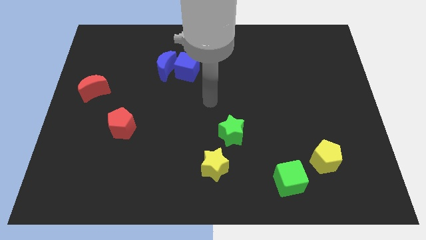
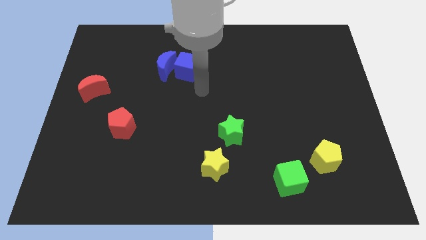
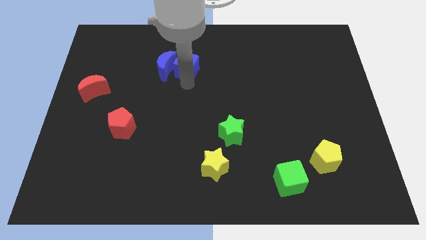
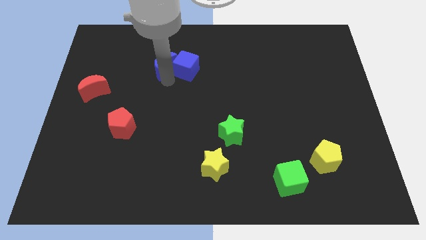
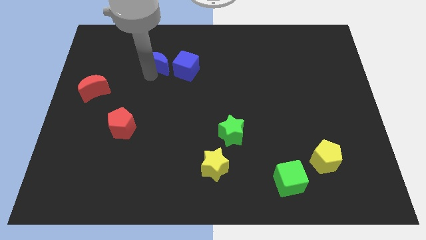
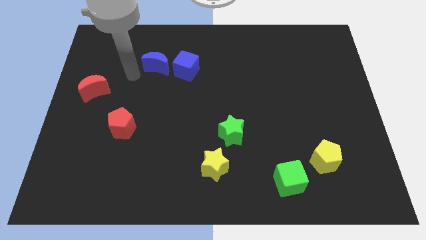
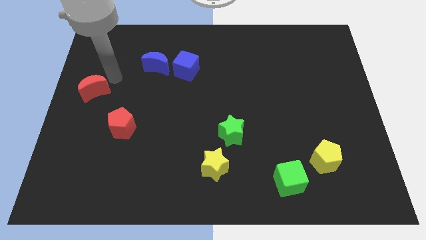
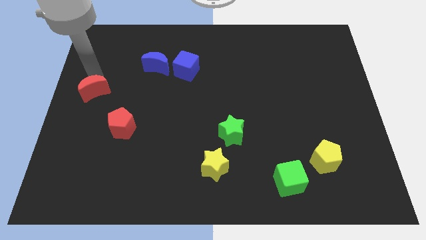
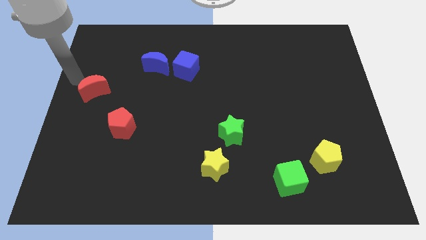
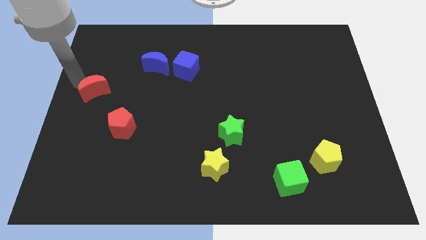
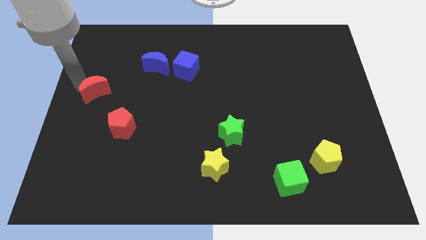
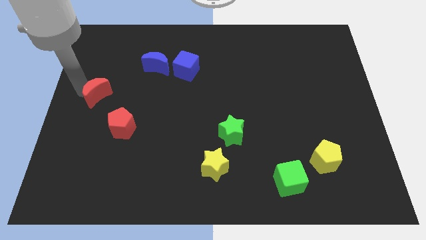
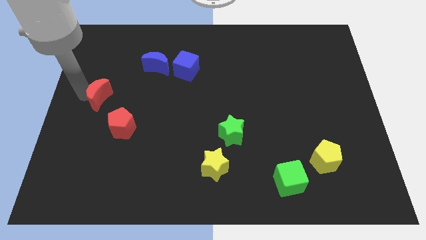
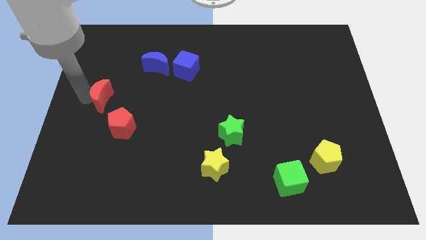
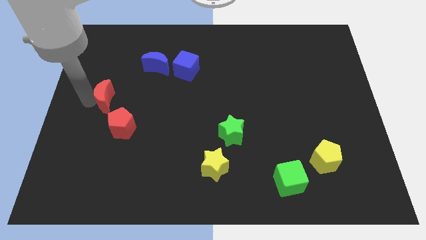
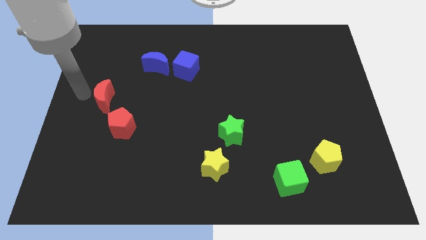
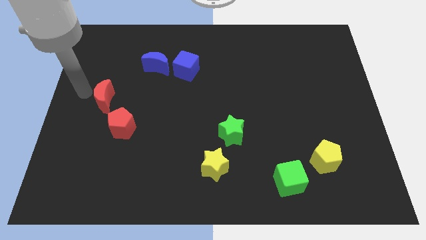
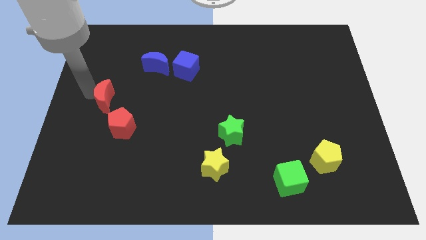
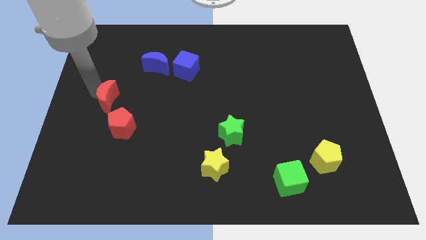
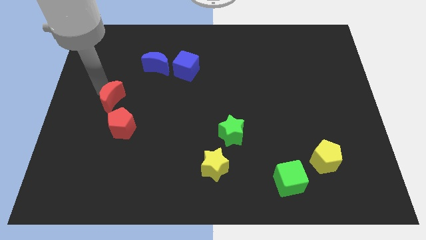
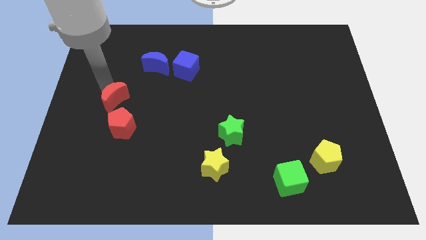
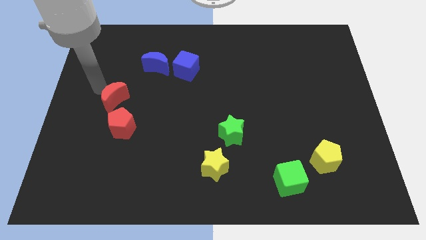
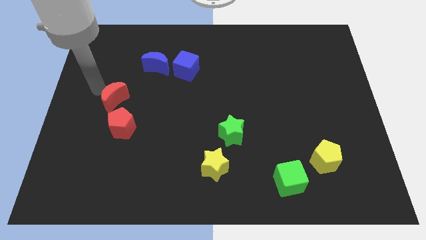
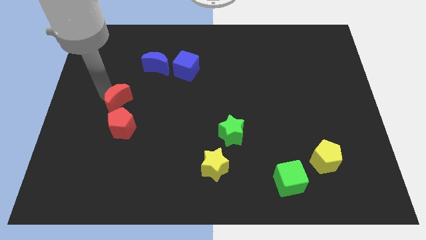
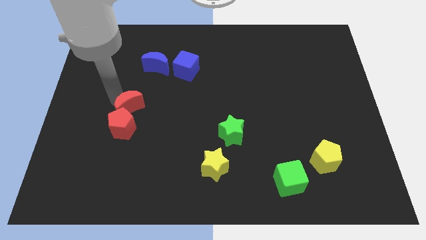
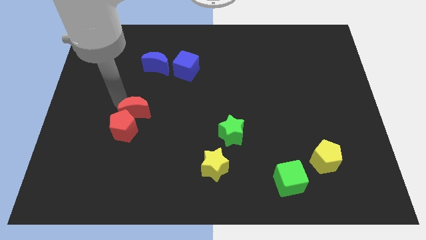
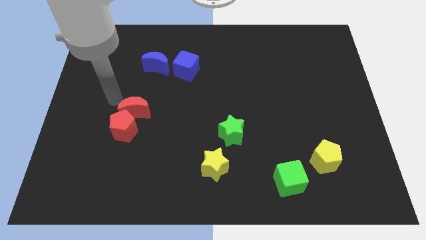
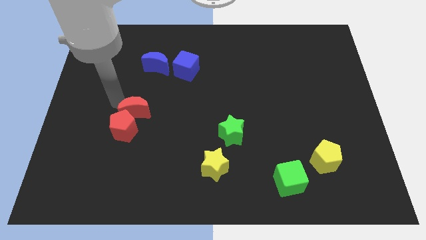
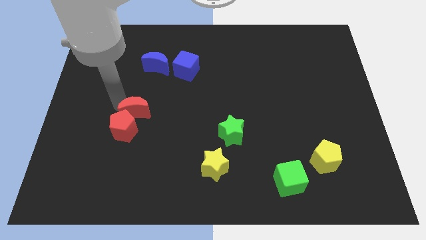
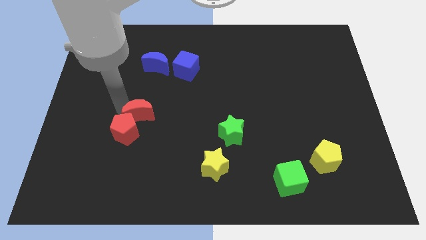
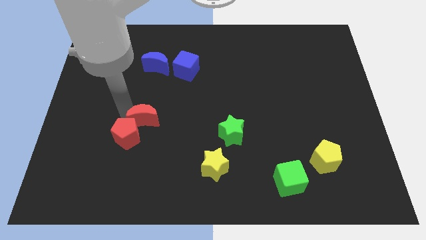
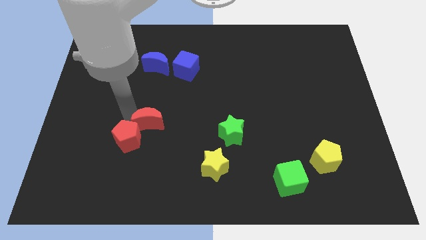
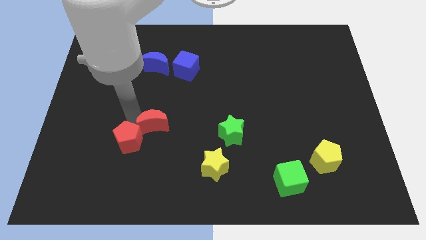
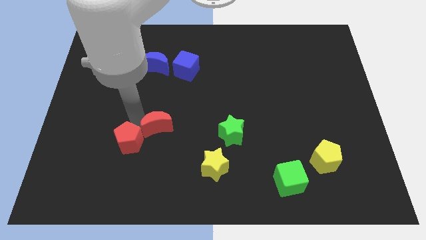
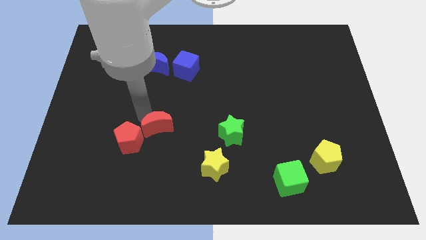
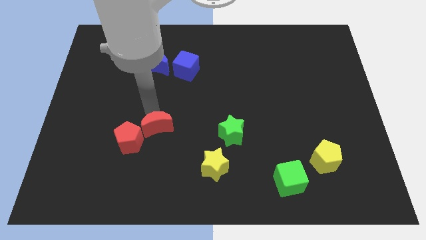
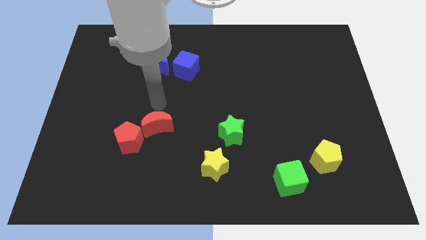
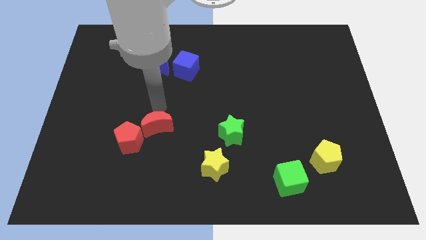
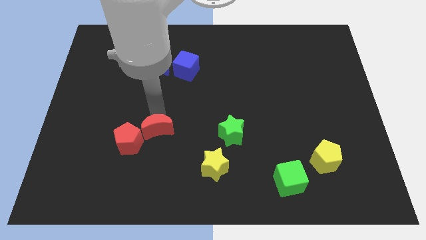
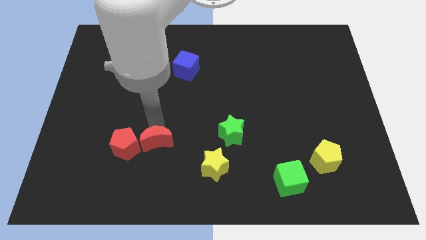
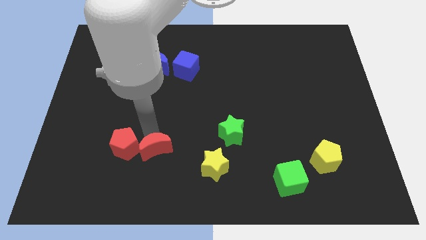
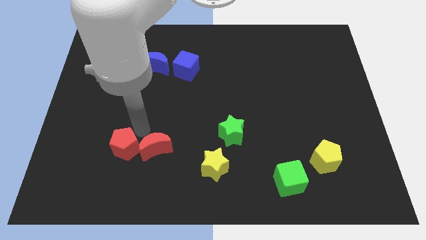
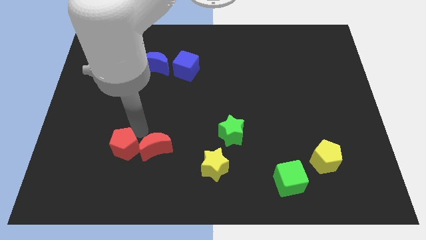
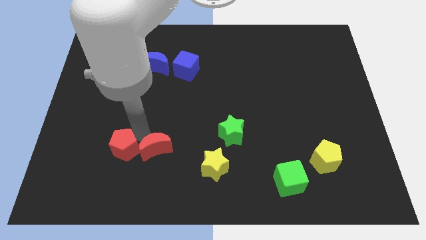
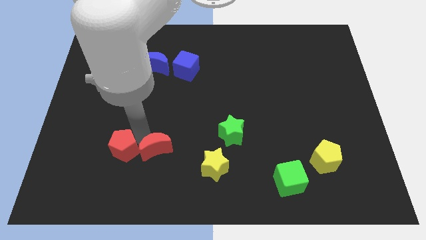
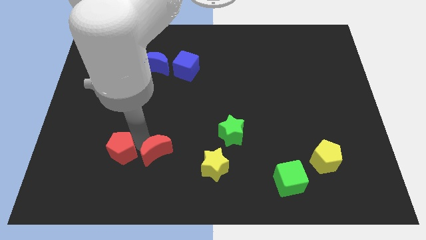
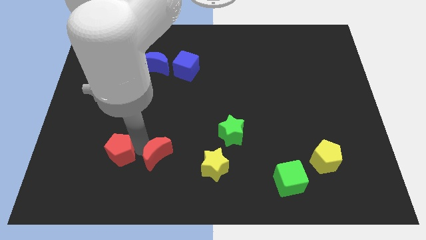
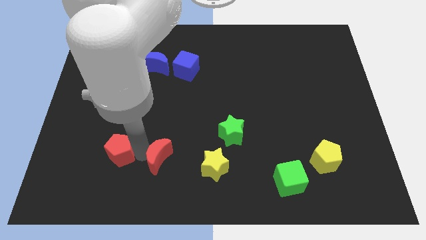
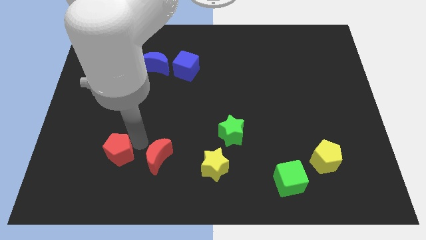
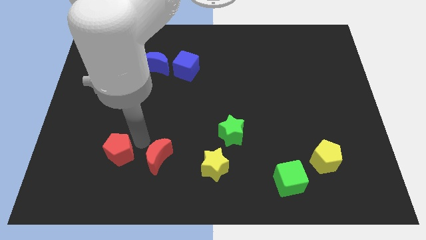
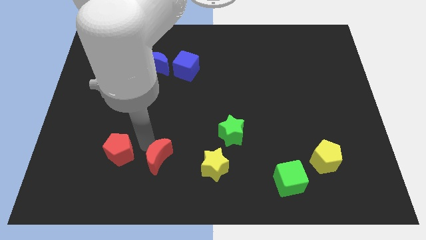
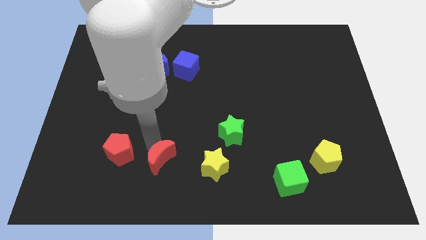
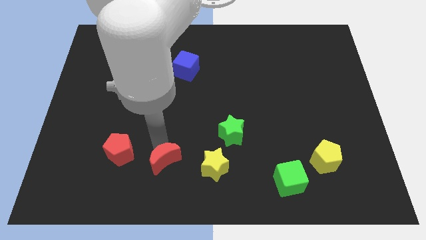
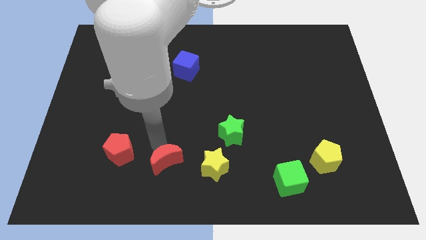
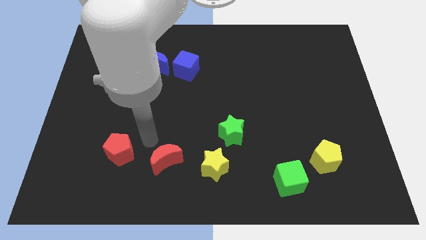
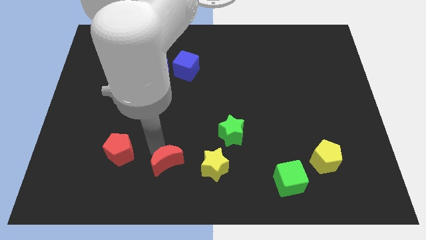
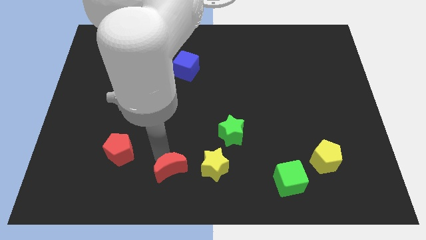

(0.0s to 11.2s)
push the red moon to the bottom

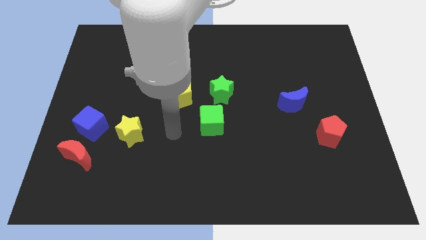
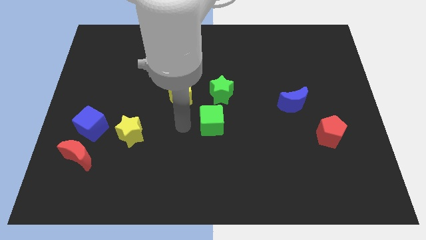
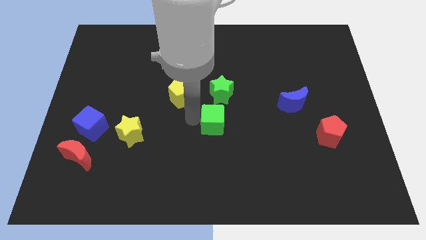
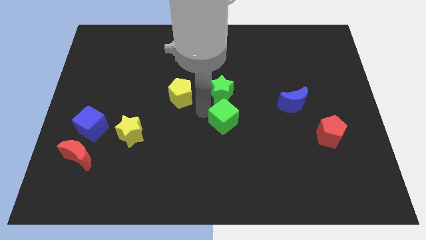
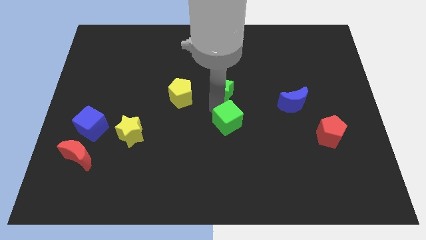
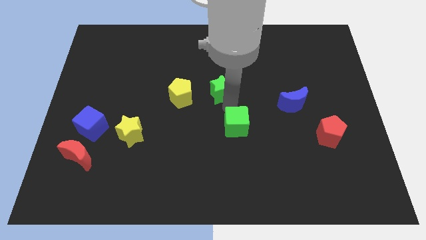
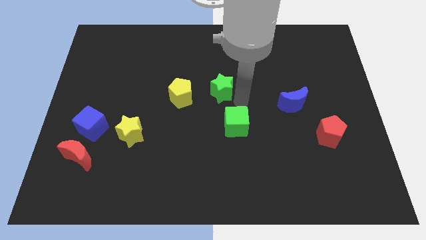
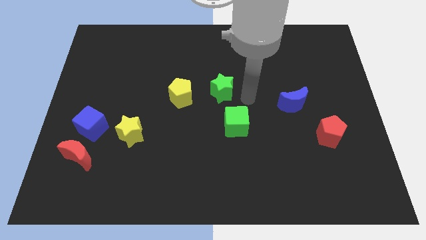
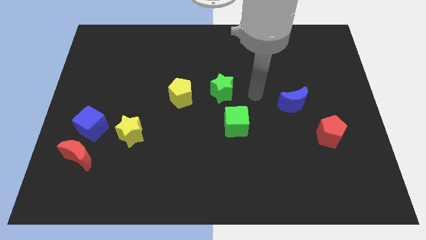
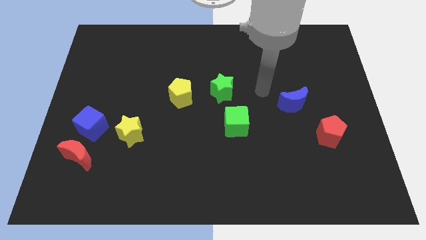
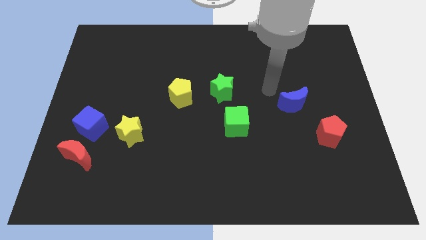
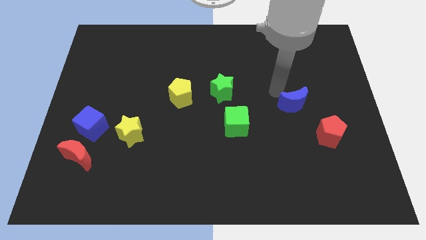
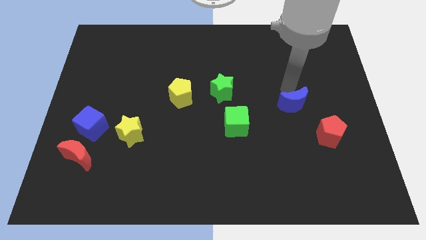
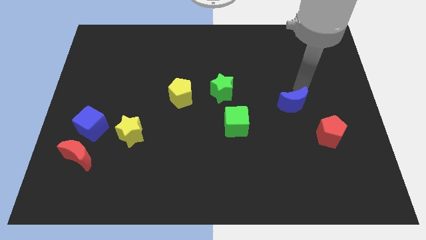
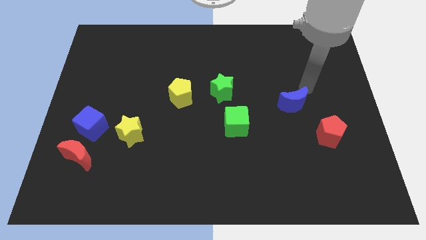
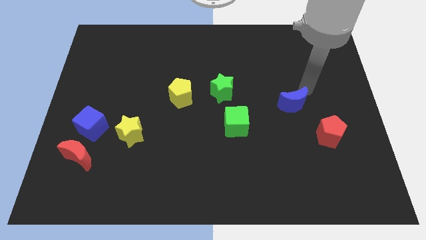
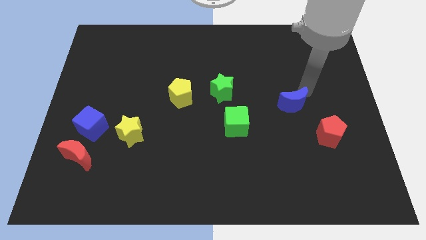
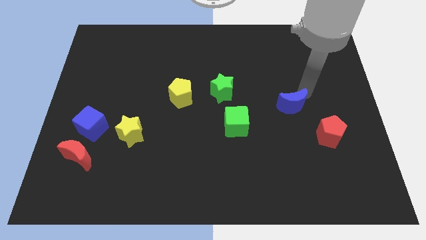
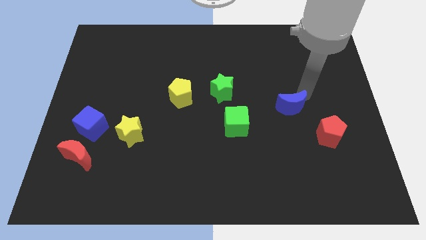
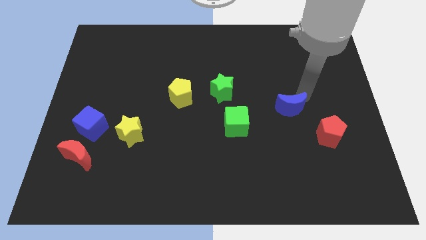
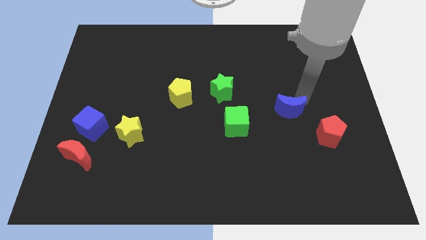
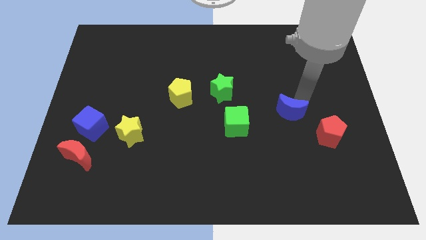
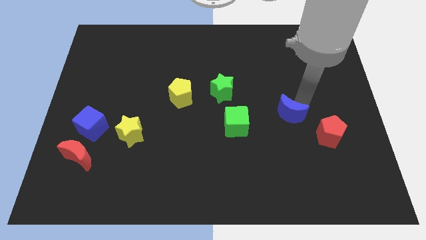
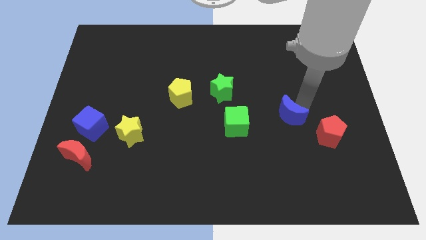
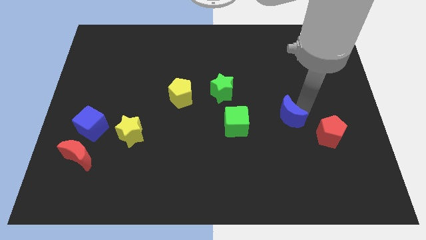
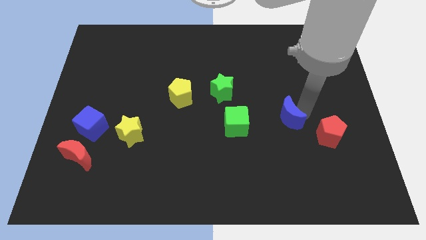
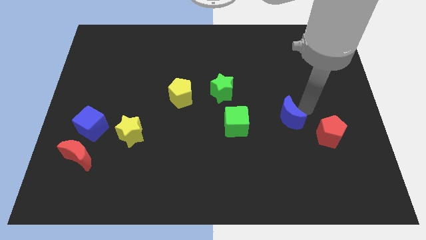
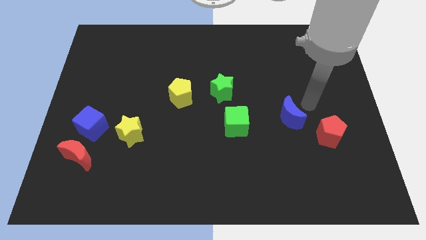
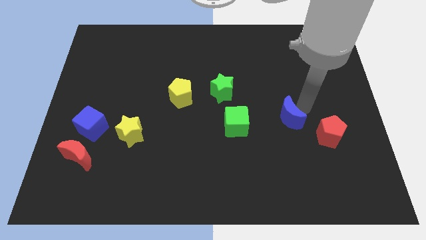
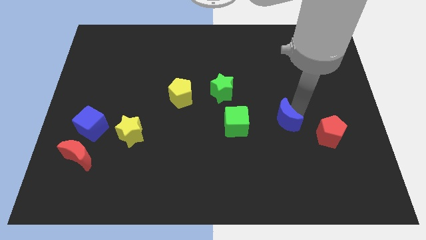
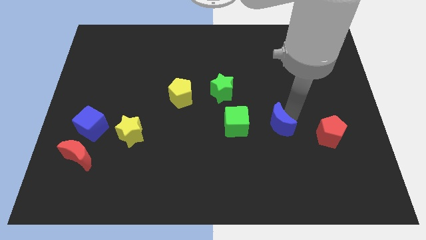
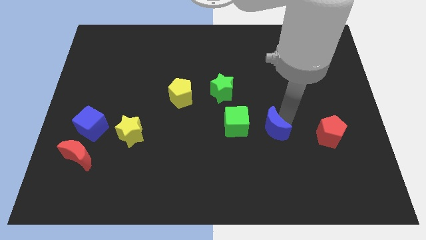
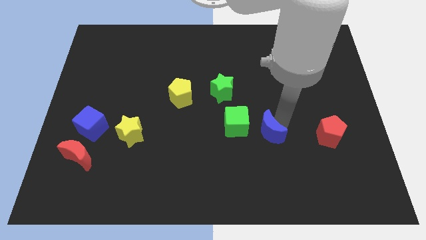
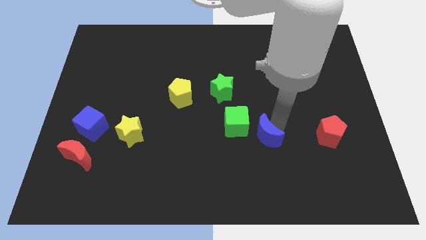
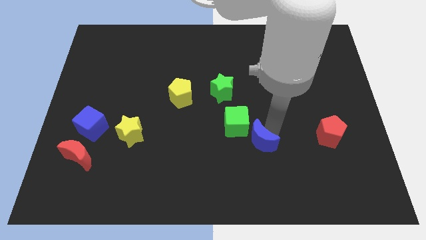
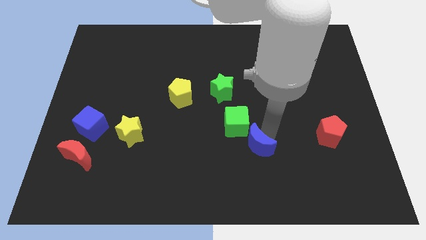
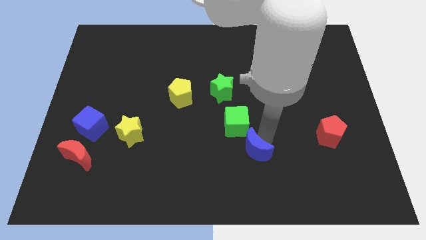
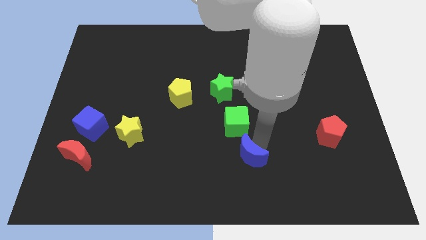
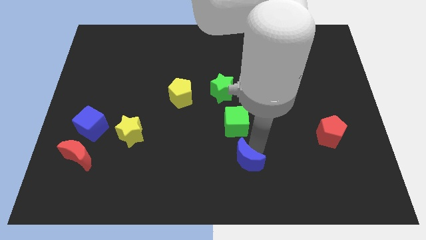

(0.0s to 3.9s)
slide the blue moon to the bottom
